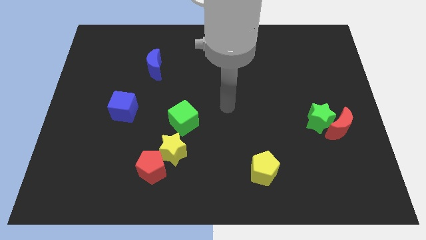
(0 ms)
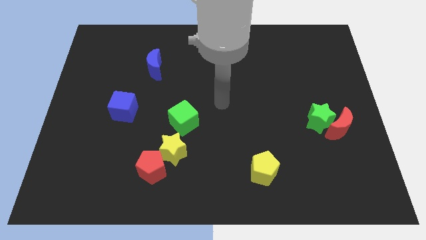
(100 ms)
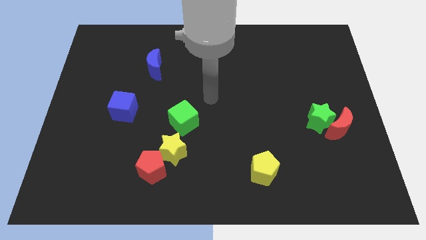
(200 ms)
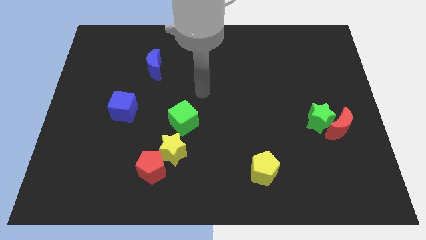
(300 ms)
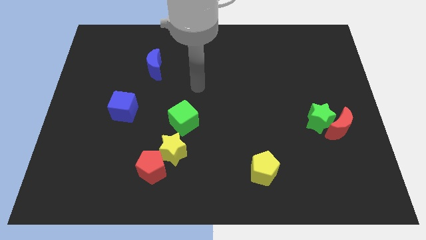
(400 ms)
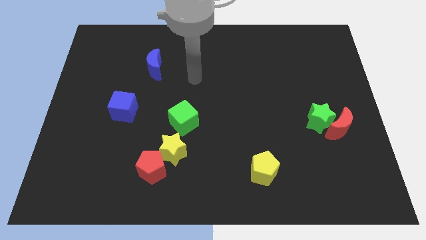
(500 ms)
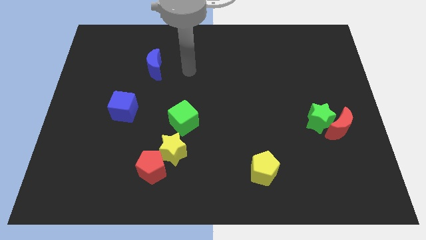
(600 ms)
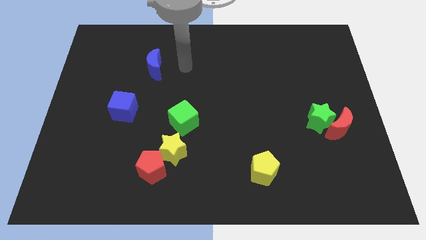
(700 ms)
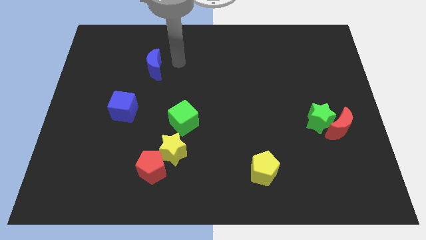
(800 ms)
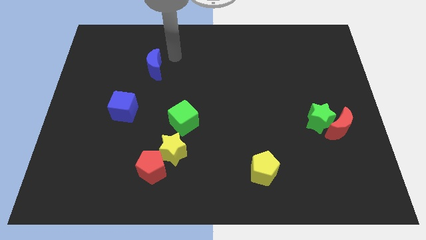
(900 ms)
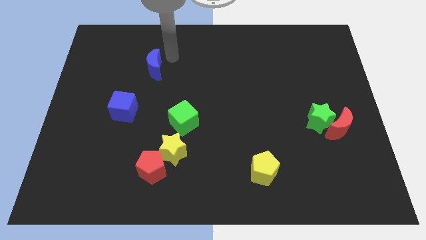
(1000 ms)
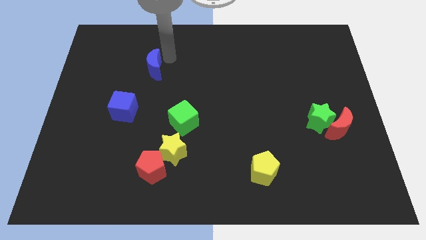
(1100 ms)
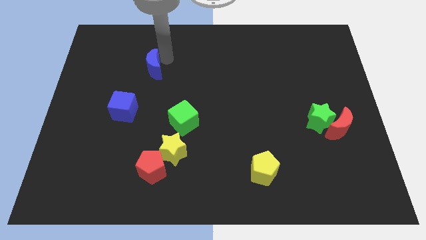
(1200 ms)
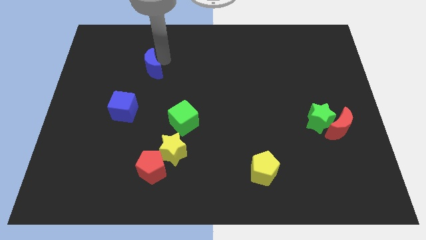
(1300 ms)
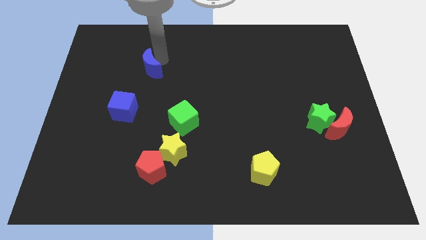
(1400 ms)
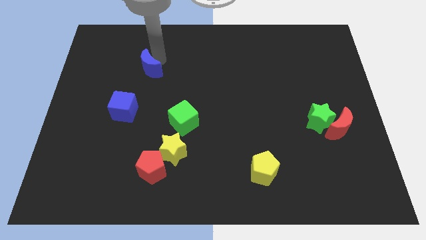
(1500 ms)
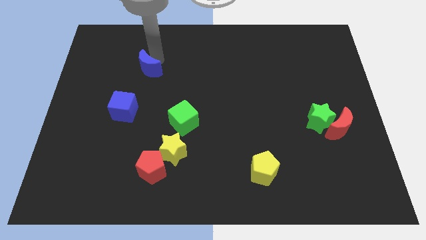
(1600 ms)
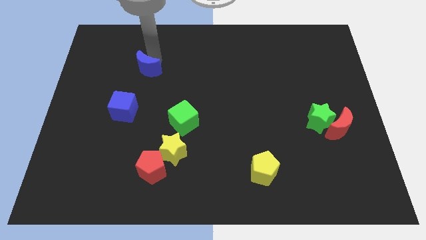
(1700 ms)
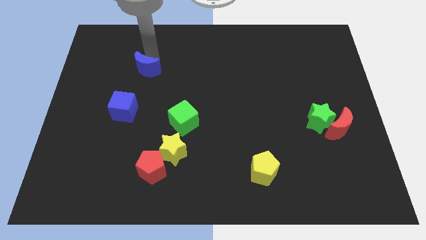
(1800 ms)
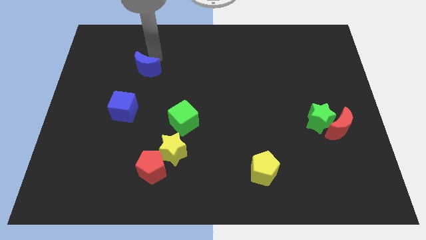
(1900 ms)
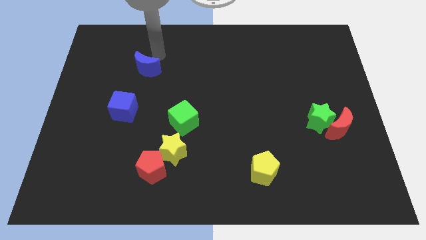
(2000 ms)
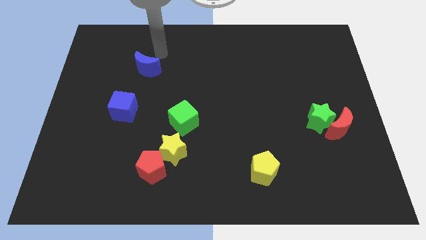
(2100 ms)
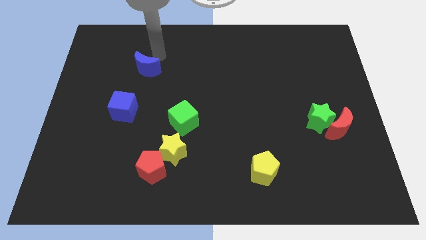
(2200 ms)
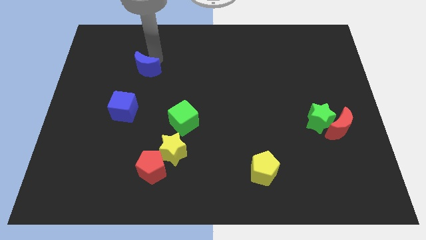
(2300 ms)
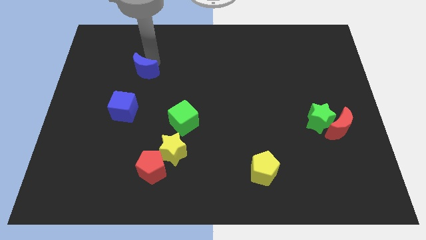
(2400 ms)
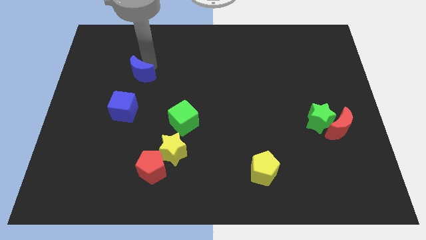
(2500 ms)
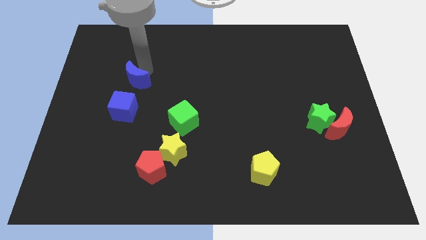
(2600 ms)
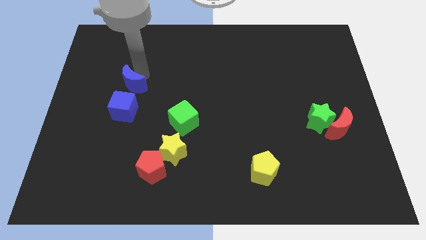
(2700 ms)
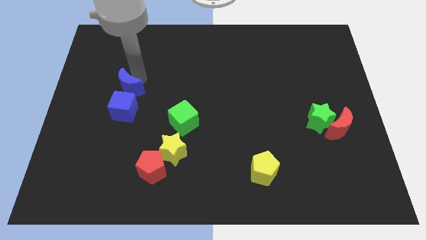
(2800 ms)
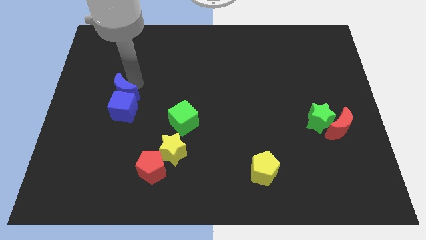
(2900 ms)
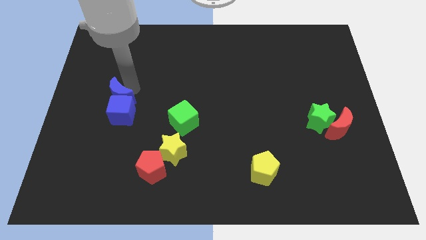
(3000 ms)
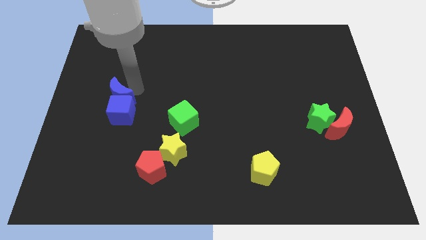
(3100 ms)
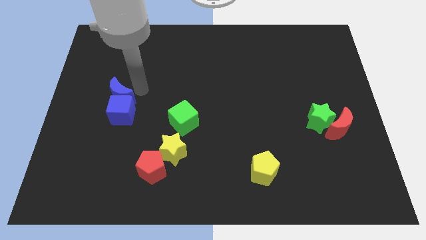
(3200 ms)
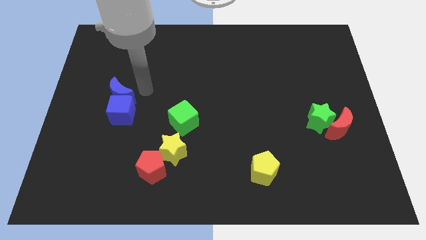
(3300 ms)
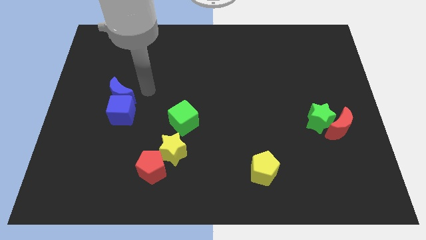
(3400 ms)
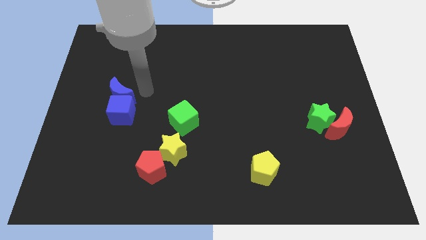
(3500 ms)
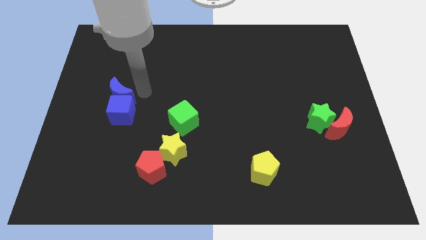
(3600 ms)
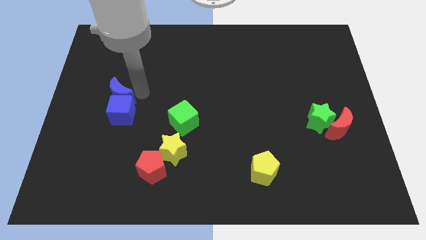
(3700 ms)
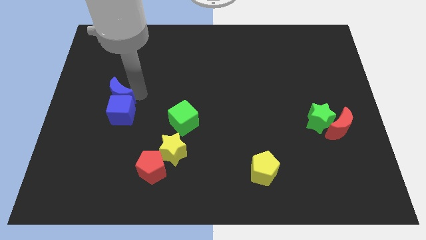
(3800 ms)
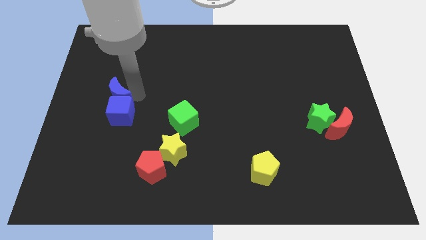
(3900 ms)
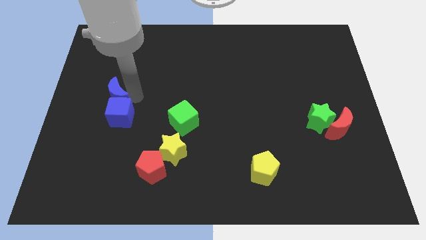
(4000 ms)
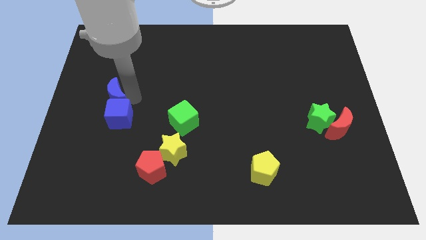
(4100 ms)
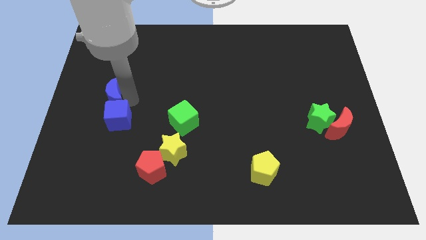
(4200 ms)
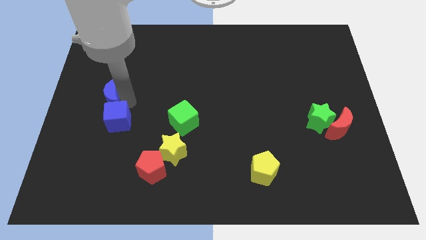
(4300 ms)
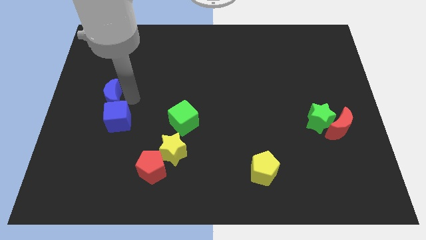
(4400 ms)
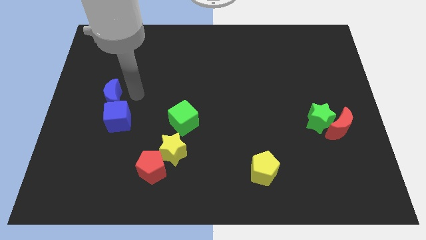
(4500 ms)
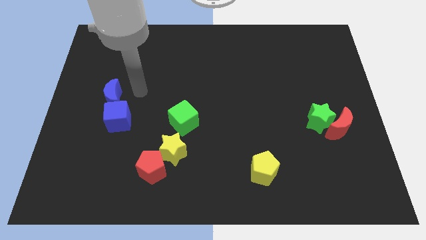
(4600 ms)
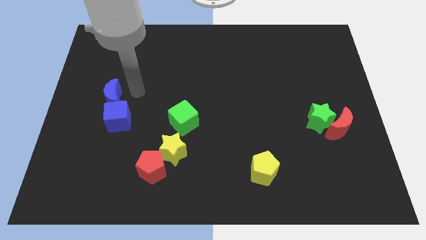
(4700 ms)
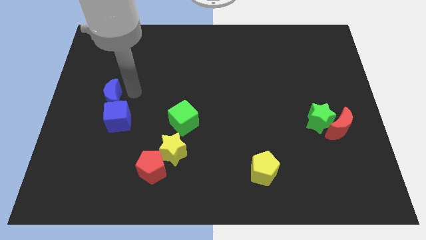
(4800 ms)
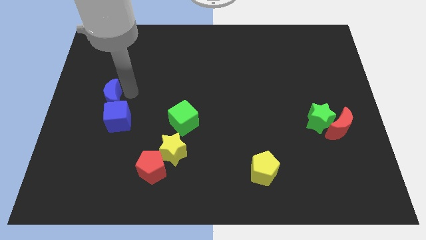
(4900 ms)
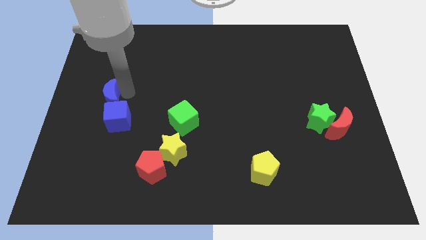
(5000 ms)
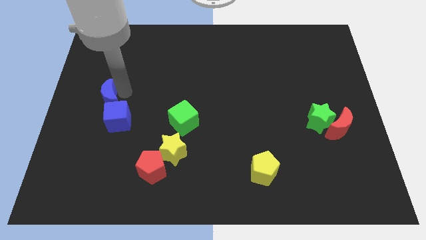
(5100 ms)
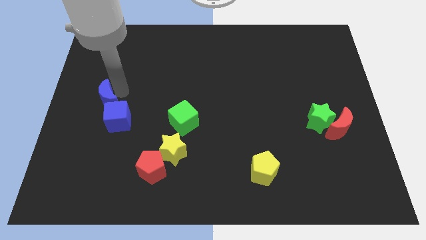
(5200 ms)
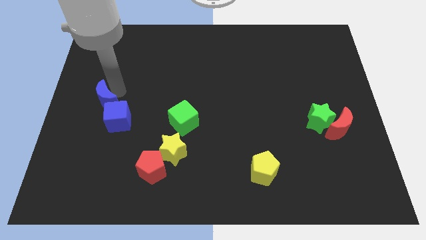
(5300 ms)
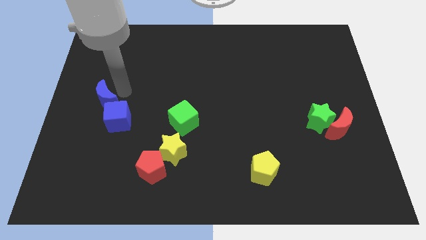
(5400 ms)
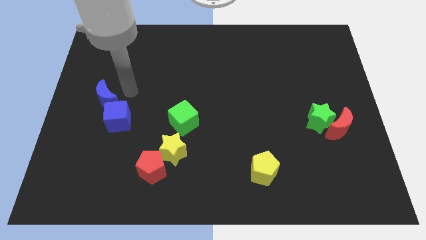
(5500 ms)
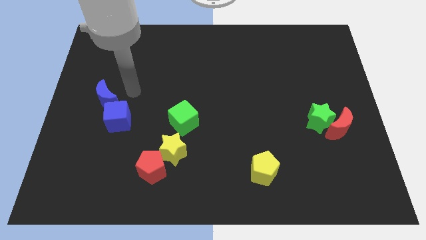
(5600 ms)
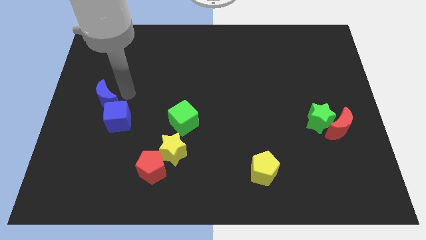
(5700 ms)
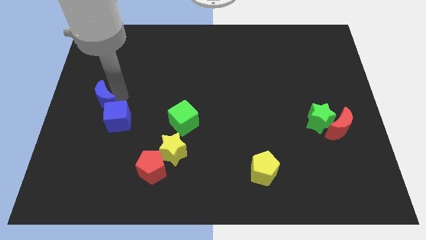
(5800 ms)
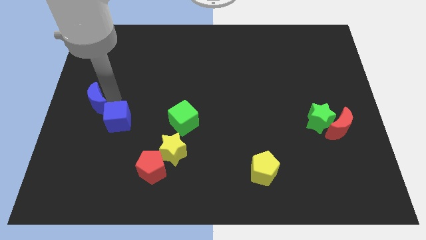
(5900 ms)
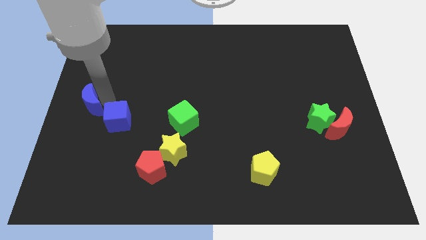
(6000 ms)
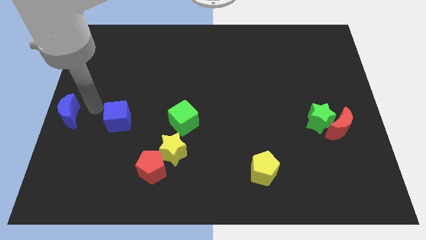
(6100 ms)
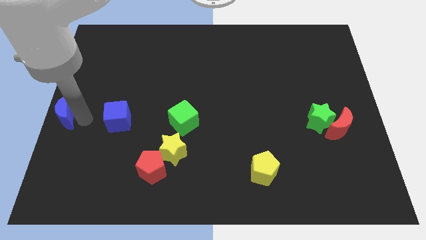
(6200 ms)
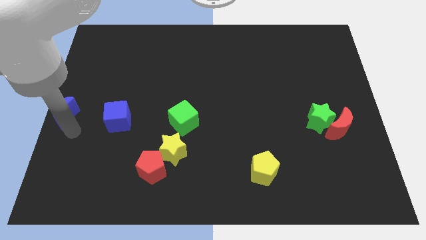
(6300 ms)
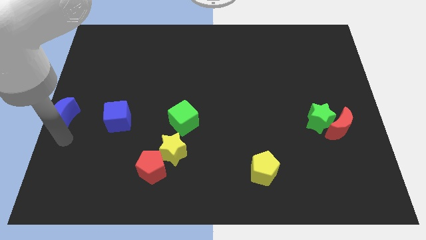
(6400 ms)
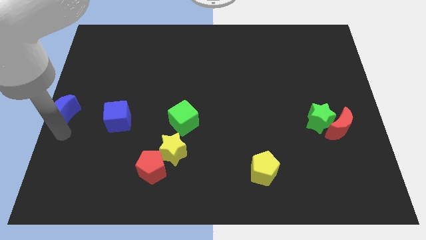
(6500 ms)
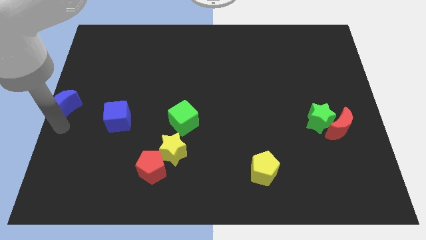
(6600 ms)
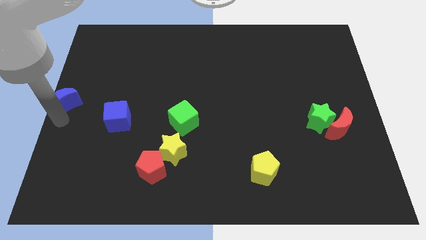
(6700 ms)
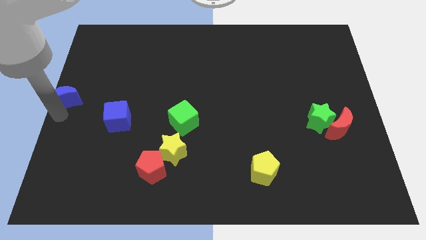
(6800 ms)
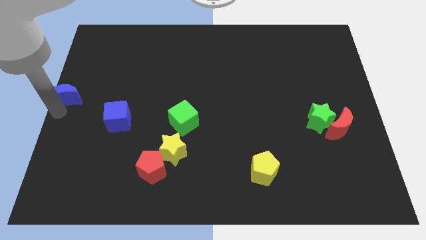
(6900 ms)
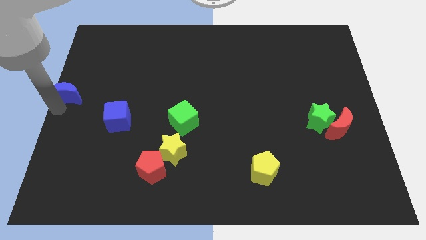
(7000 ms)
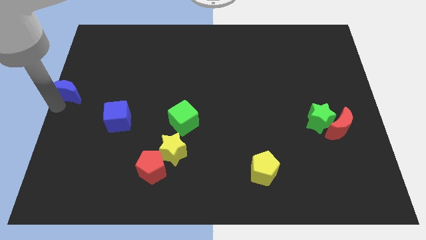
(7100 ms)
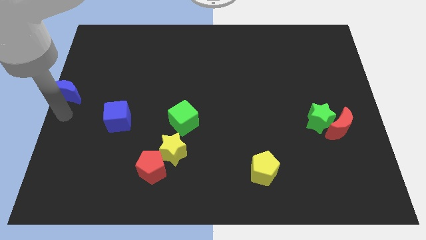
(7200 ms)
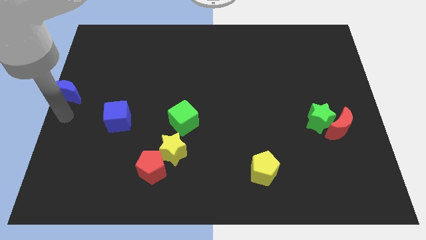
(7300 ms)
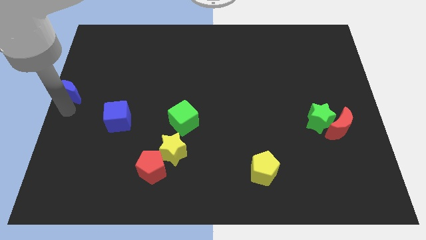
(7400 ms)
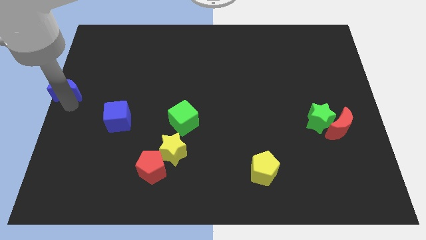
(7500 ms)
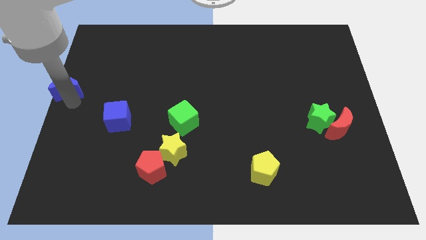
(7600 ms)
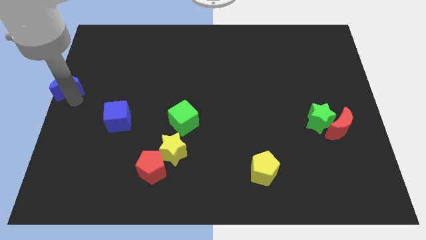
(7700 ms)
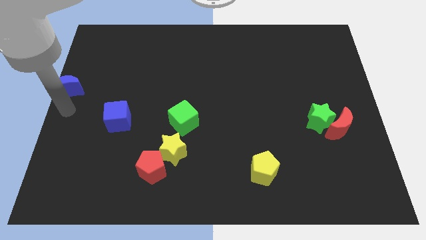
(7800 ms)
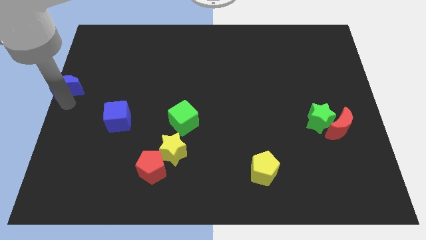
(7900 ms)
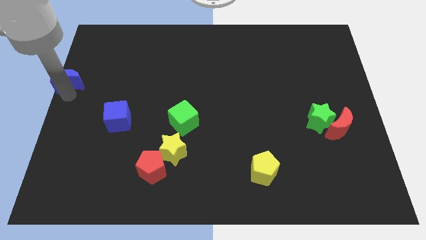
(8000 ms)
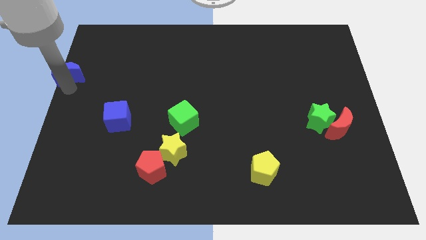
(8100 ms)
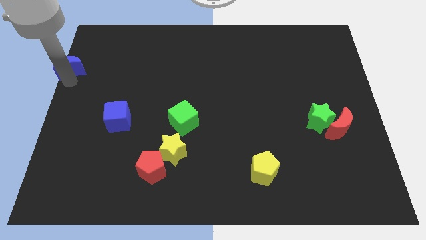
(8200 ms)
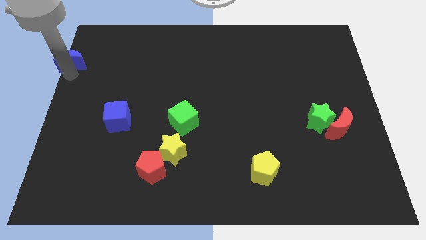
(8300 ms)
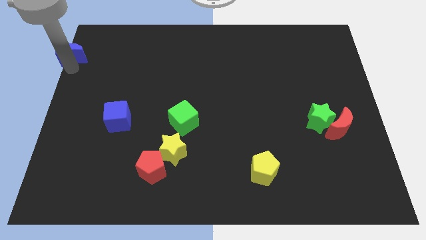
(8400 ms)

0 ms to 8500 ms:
slide the blue moon to the upper left corner
